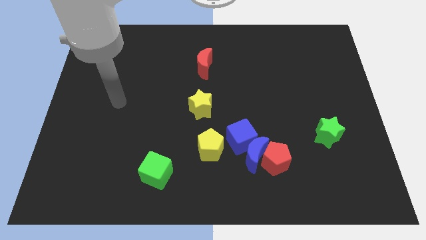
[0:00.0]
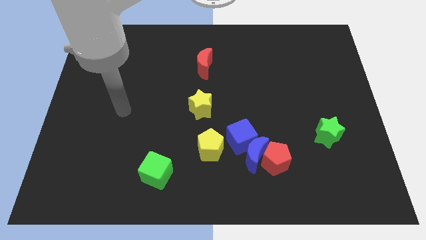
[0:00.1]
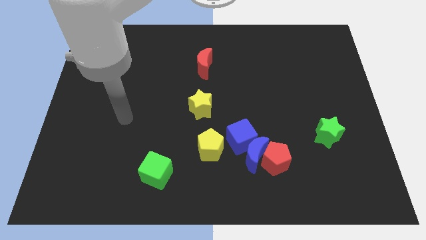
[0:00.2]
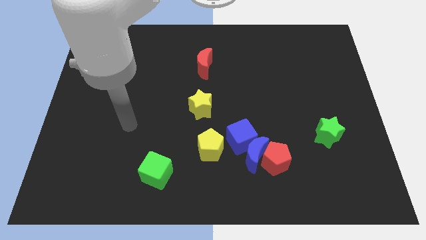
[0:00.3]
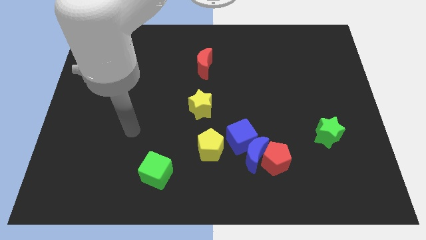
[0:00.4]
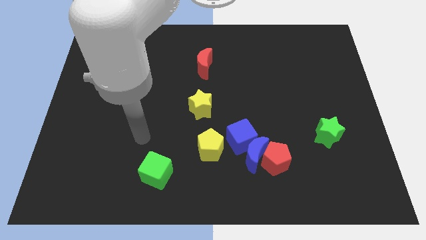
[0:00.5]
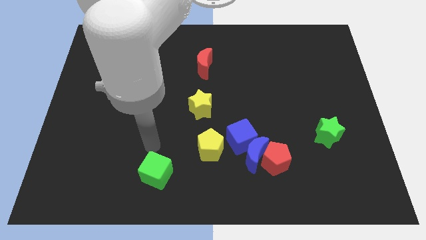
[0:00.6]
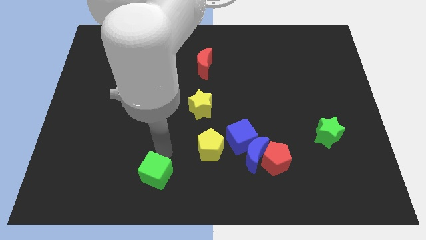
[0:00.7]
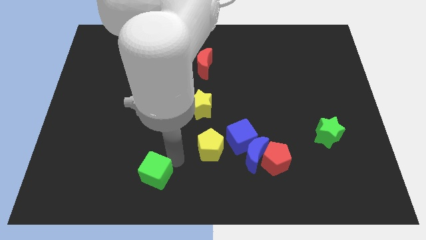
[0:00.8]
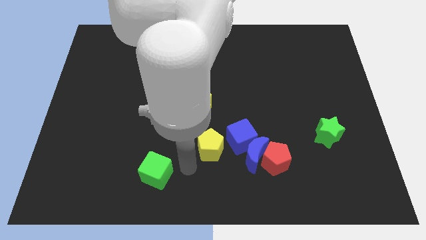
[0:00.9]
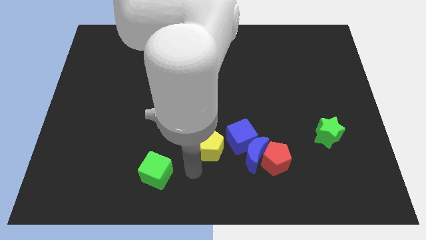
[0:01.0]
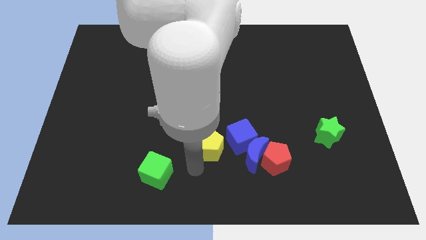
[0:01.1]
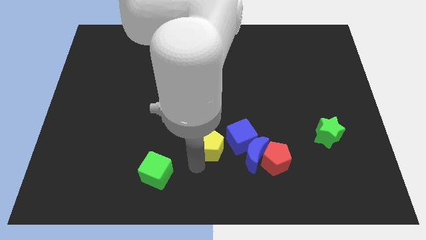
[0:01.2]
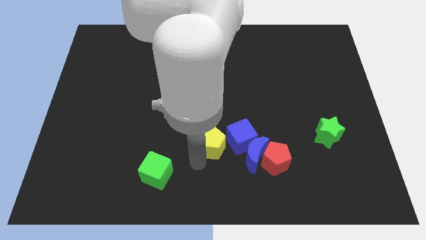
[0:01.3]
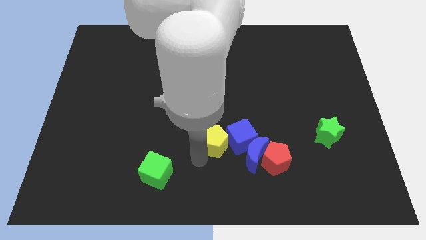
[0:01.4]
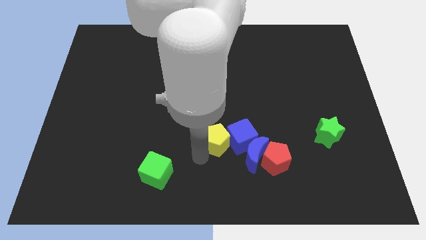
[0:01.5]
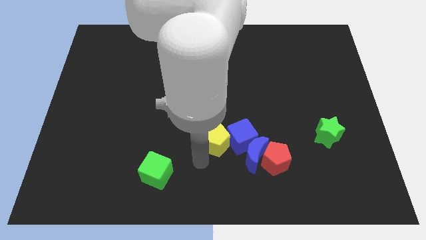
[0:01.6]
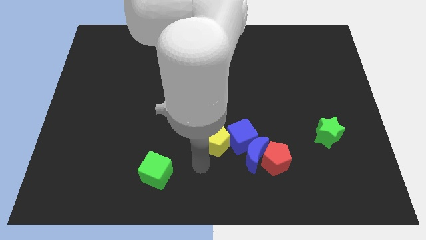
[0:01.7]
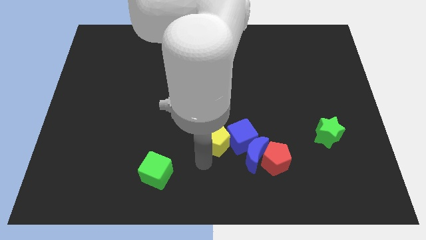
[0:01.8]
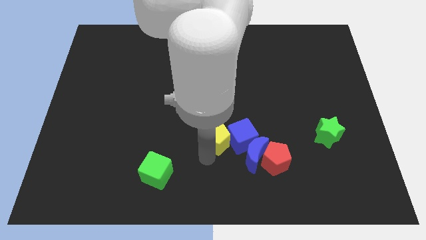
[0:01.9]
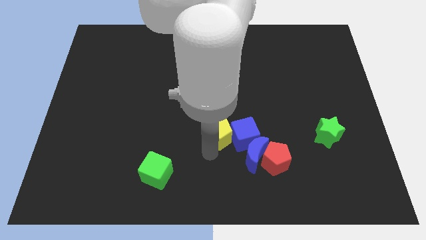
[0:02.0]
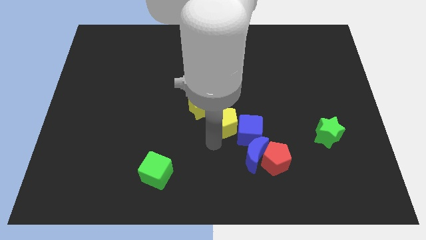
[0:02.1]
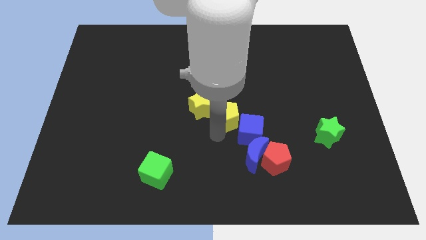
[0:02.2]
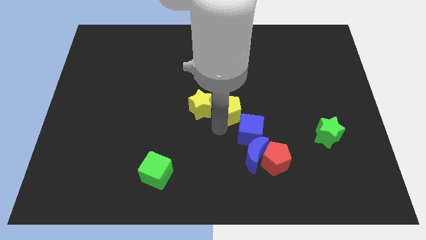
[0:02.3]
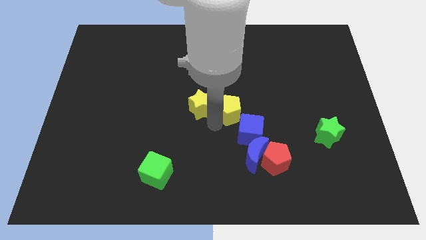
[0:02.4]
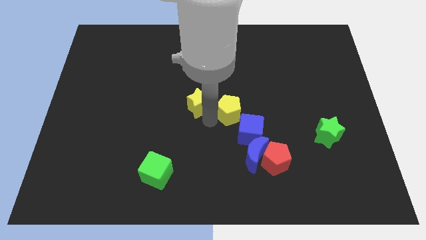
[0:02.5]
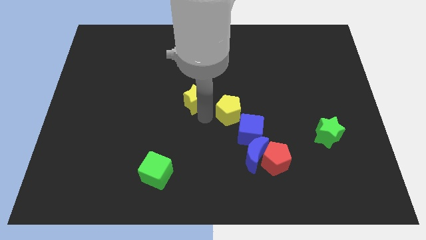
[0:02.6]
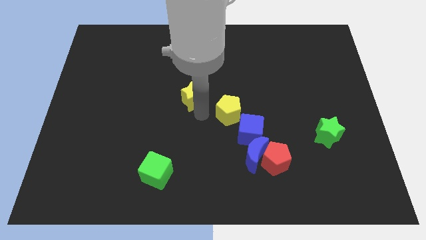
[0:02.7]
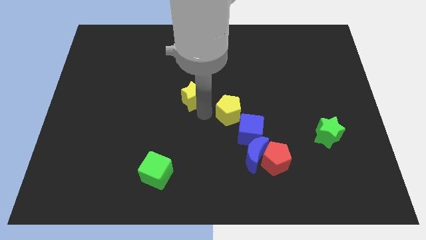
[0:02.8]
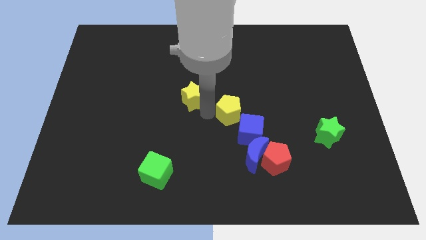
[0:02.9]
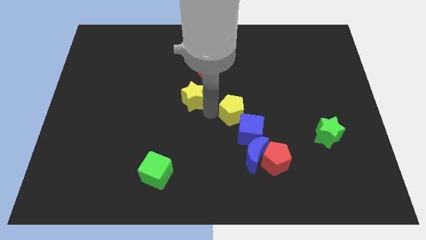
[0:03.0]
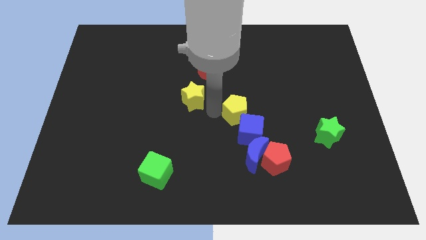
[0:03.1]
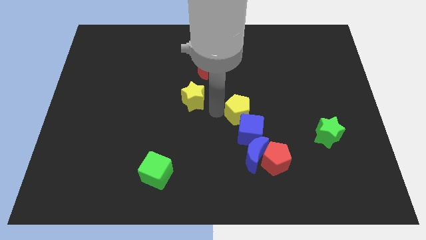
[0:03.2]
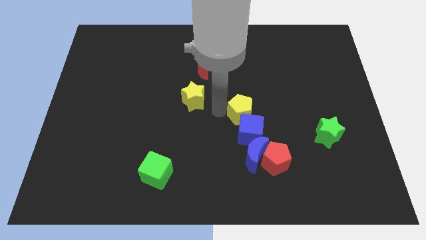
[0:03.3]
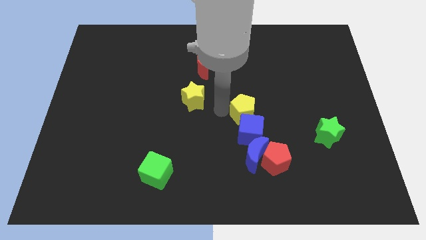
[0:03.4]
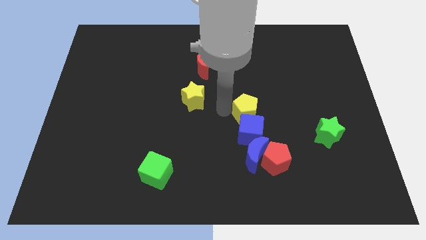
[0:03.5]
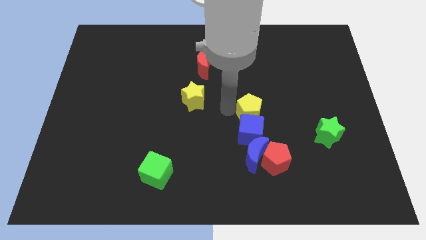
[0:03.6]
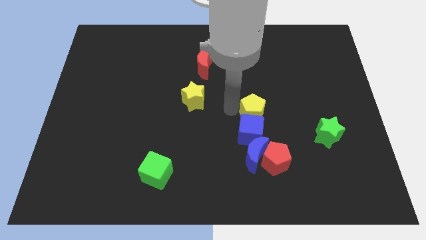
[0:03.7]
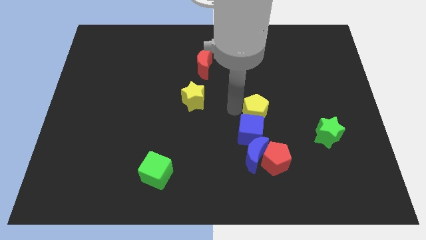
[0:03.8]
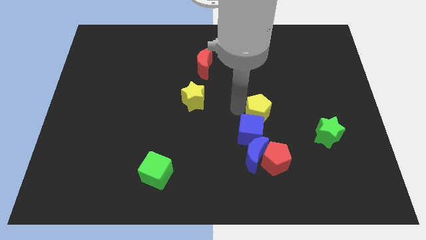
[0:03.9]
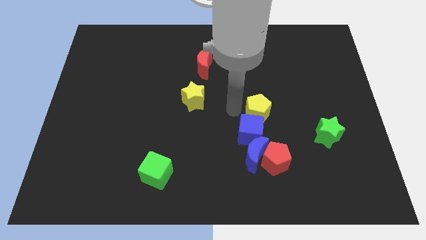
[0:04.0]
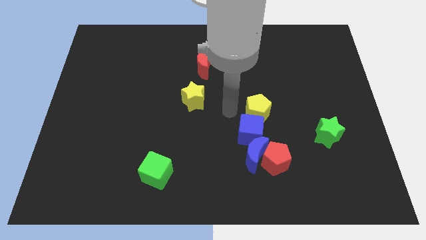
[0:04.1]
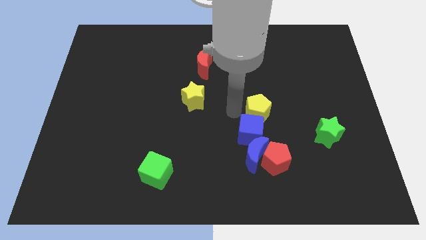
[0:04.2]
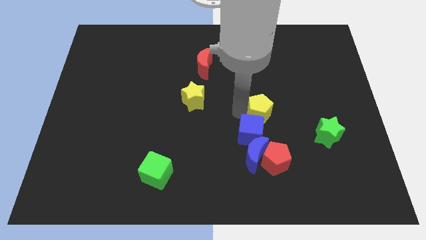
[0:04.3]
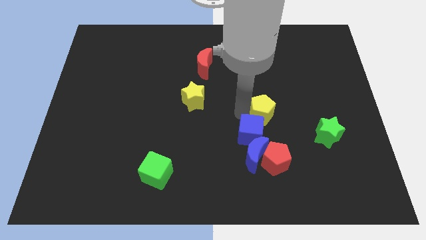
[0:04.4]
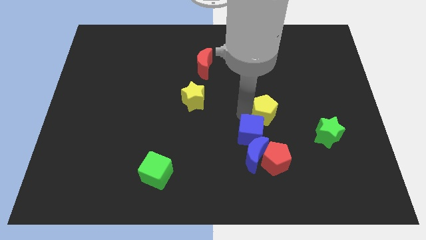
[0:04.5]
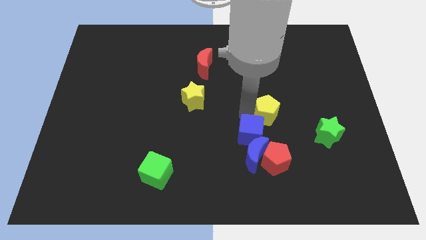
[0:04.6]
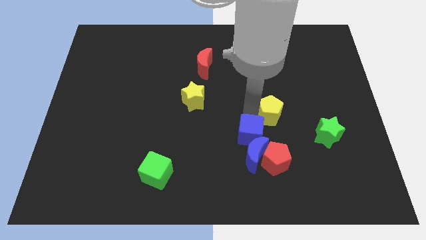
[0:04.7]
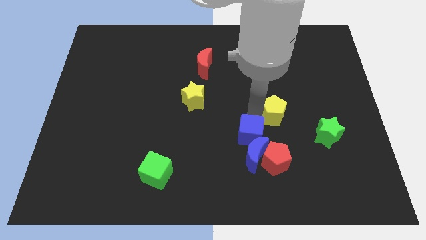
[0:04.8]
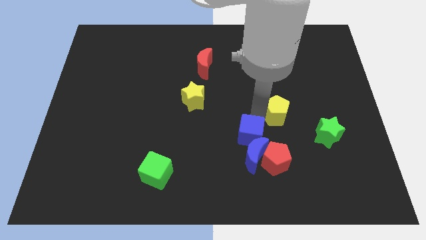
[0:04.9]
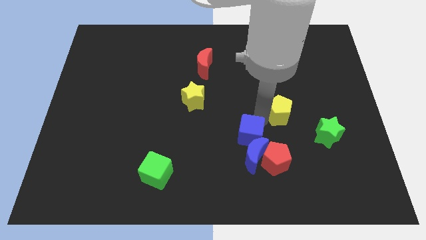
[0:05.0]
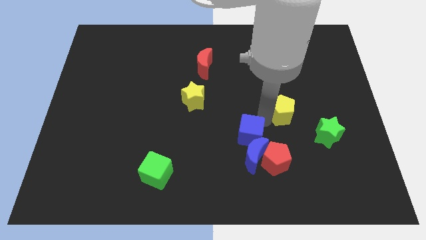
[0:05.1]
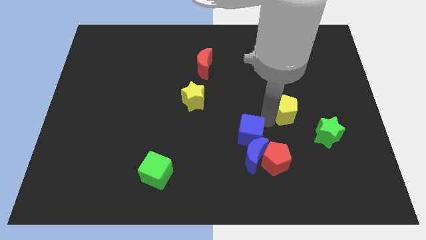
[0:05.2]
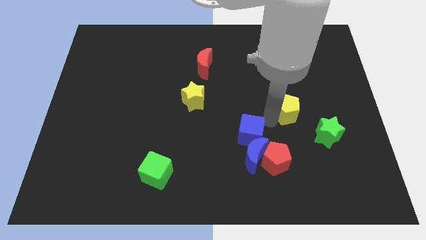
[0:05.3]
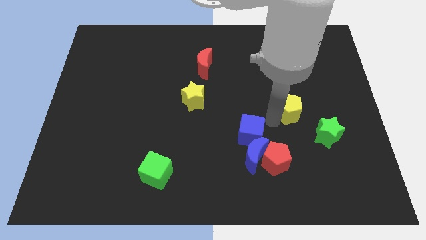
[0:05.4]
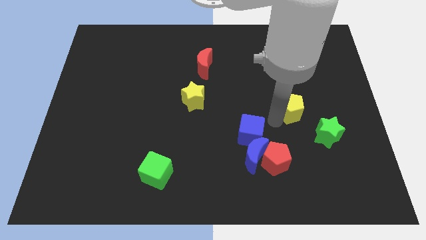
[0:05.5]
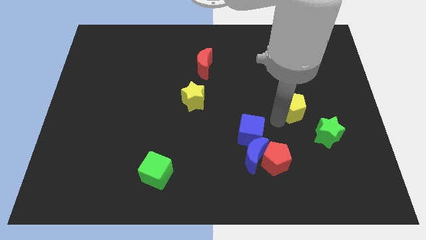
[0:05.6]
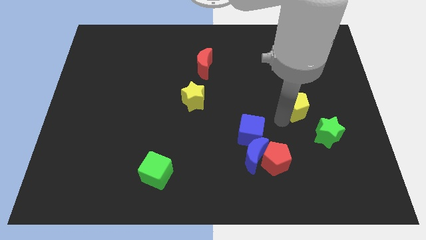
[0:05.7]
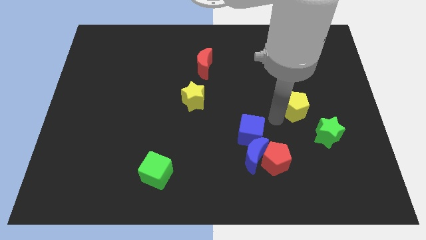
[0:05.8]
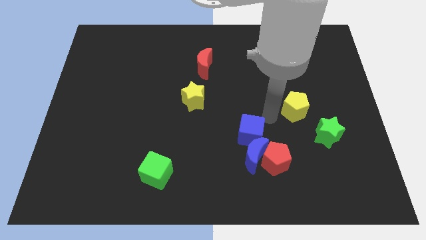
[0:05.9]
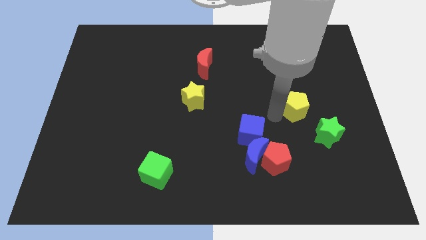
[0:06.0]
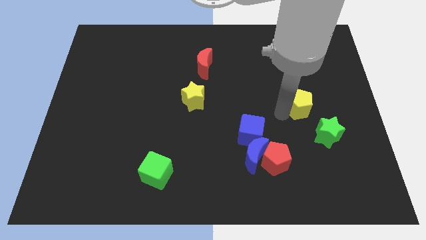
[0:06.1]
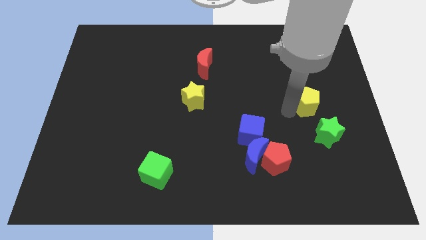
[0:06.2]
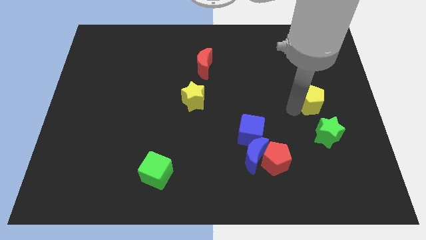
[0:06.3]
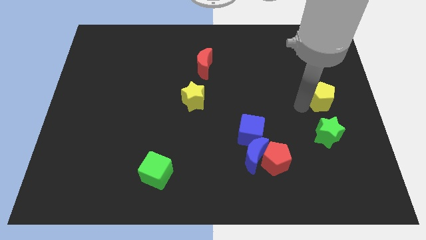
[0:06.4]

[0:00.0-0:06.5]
push the yellow pentagon to the right side
